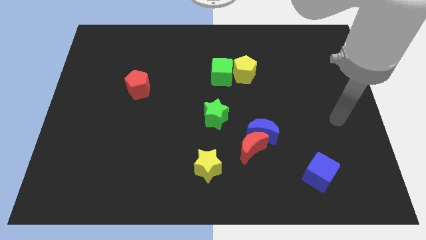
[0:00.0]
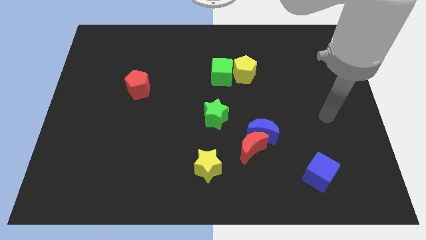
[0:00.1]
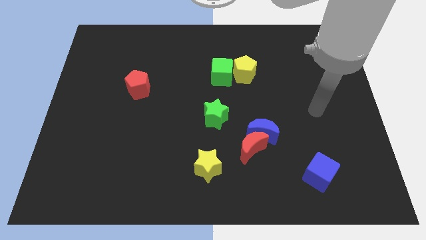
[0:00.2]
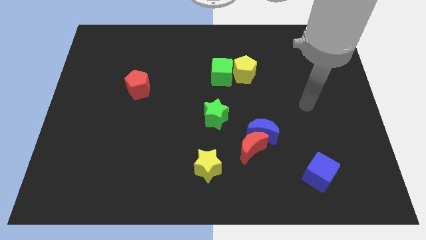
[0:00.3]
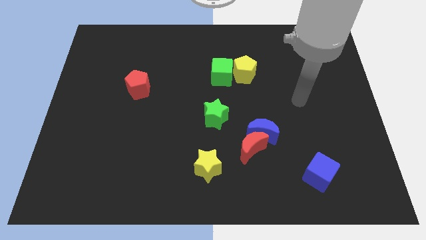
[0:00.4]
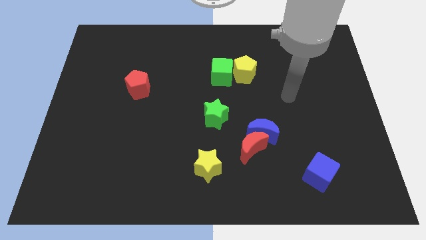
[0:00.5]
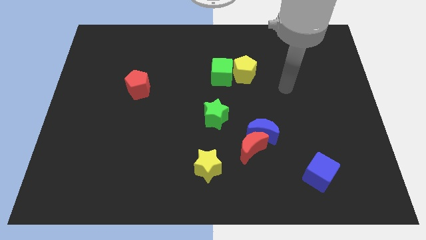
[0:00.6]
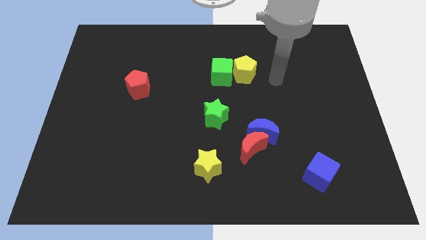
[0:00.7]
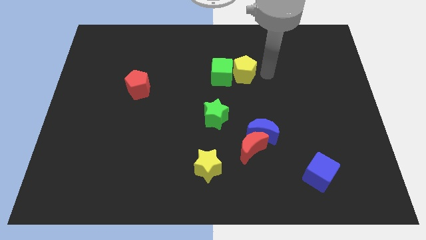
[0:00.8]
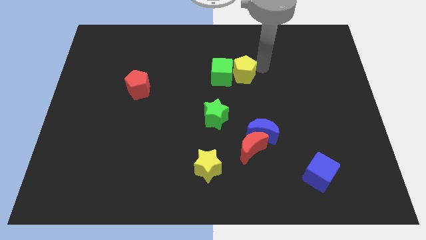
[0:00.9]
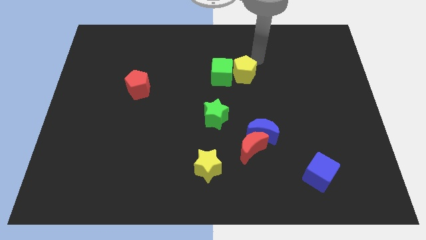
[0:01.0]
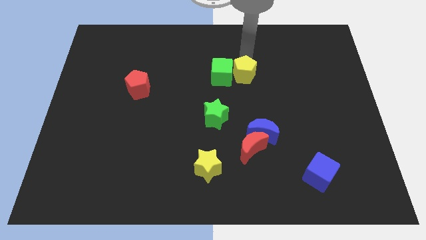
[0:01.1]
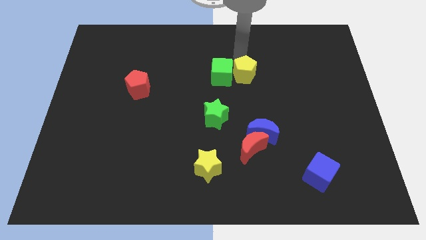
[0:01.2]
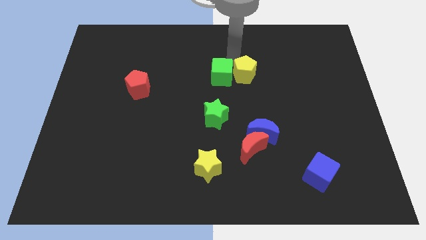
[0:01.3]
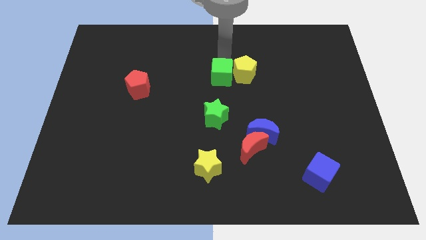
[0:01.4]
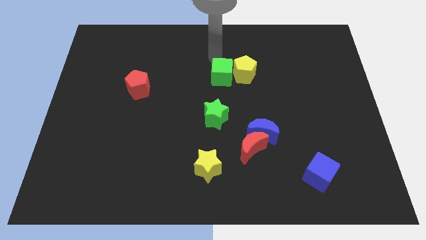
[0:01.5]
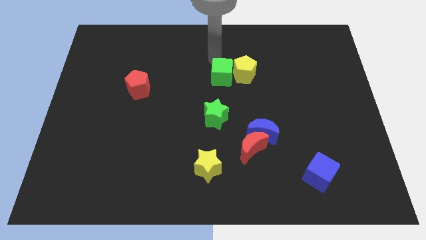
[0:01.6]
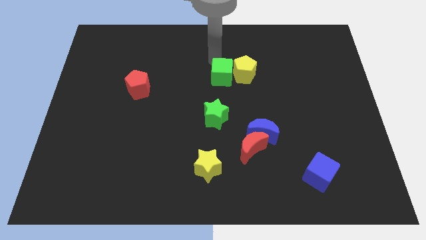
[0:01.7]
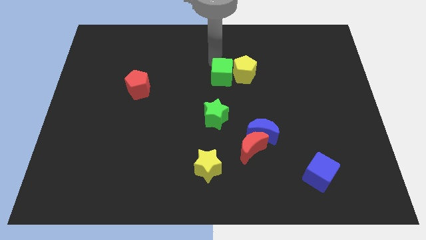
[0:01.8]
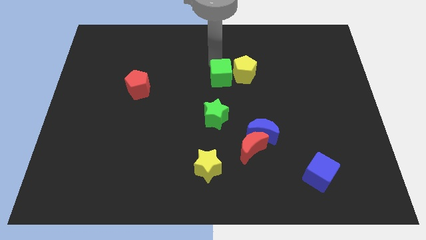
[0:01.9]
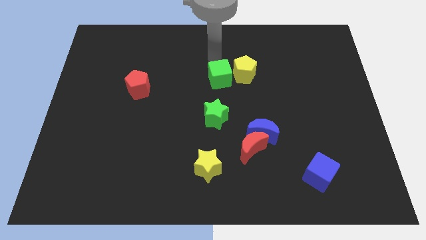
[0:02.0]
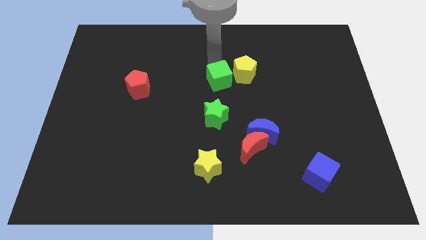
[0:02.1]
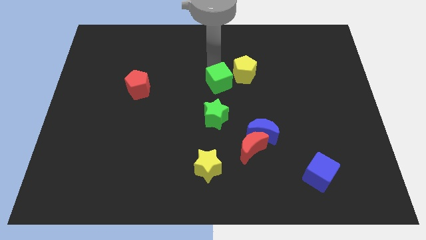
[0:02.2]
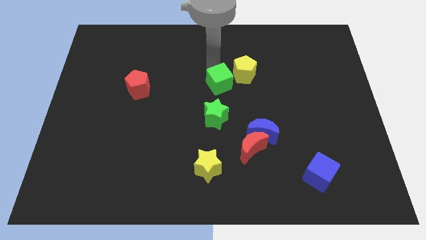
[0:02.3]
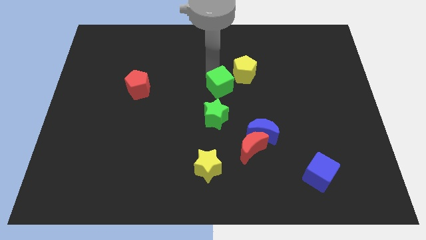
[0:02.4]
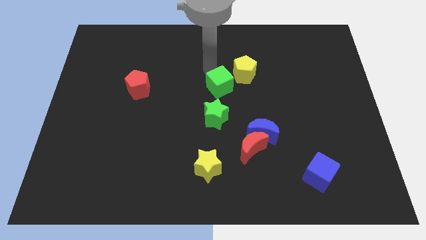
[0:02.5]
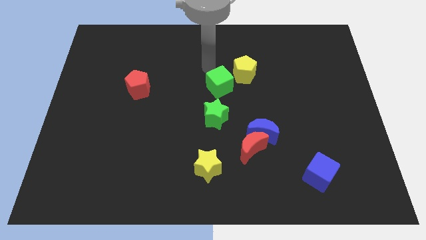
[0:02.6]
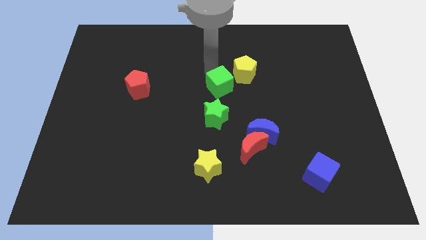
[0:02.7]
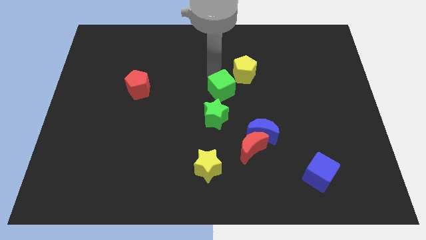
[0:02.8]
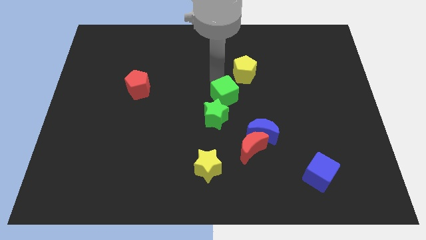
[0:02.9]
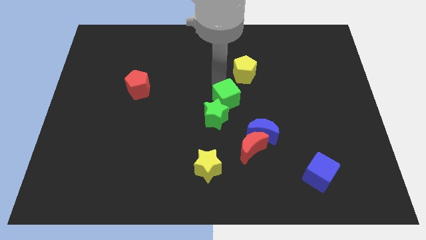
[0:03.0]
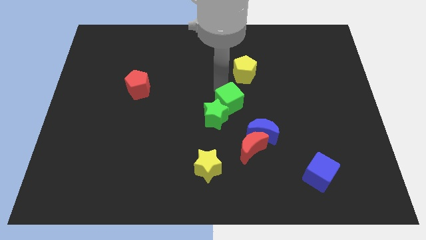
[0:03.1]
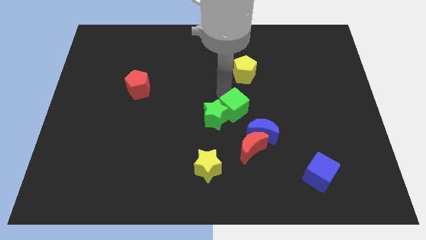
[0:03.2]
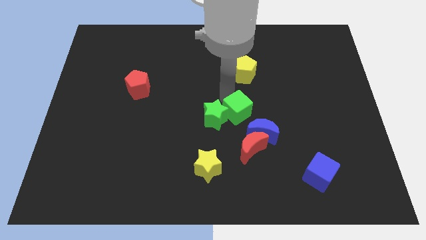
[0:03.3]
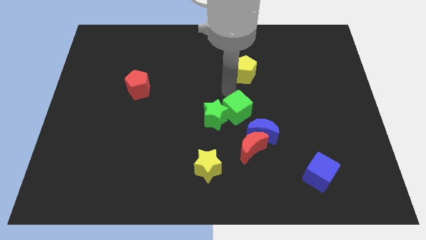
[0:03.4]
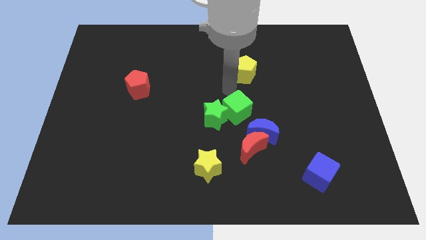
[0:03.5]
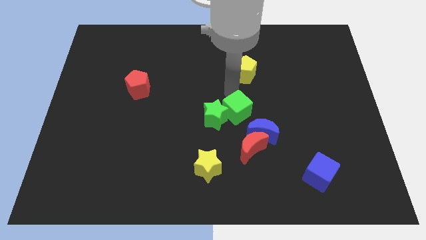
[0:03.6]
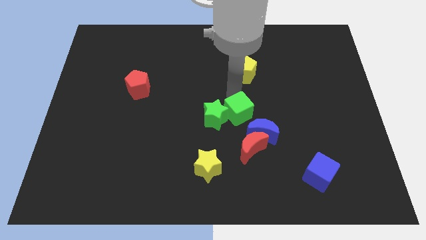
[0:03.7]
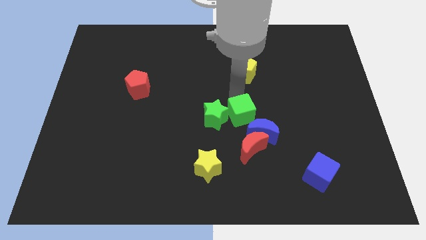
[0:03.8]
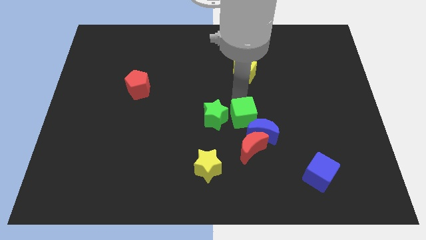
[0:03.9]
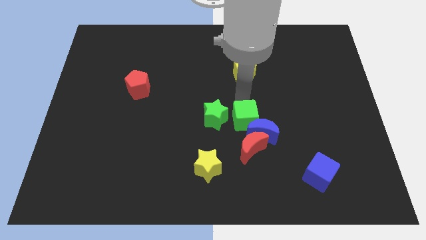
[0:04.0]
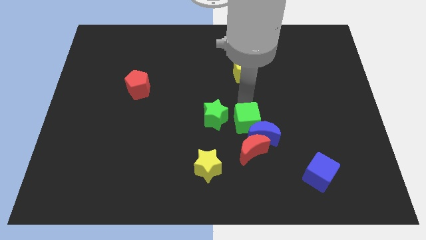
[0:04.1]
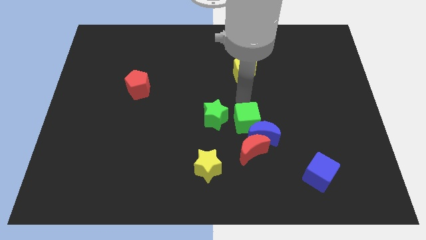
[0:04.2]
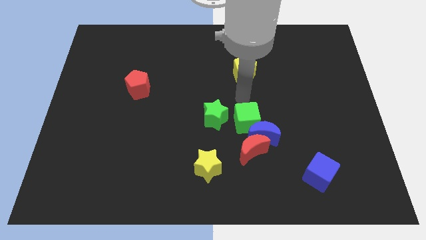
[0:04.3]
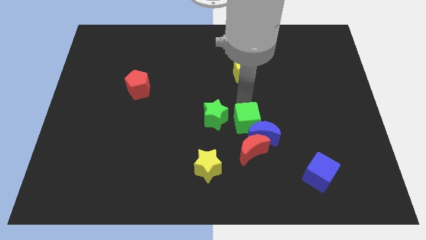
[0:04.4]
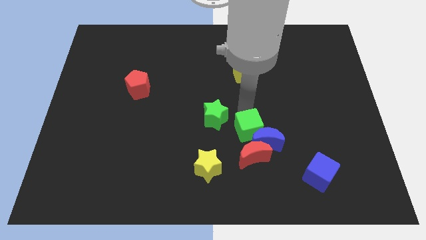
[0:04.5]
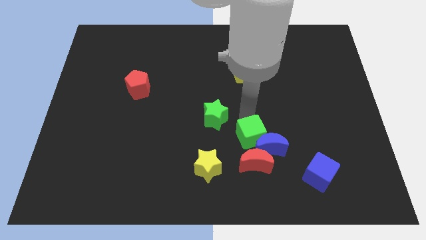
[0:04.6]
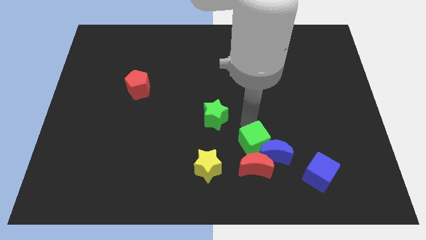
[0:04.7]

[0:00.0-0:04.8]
put the green cube next to the red moon

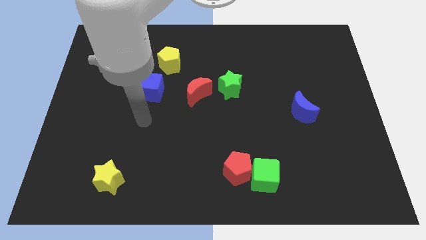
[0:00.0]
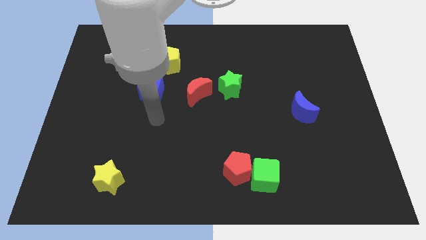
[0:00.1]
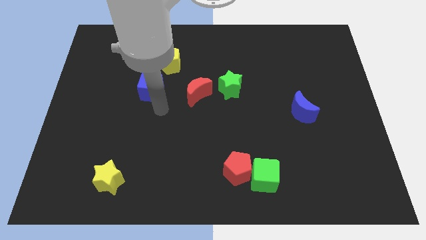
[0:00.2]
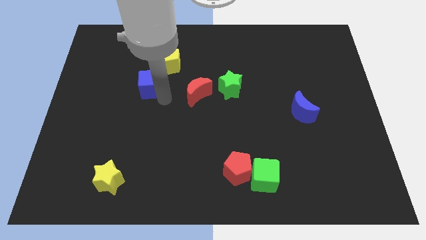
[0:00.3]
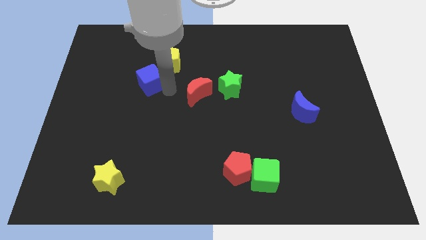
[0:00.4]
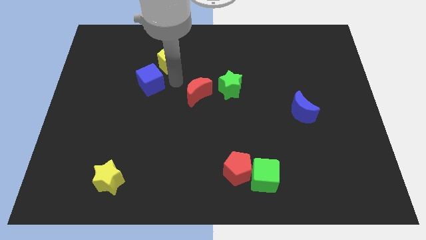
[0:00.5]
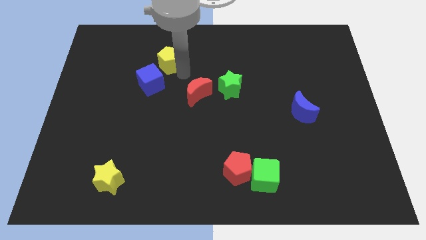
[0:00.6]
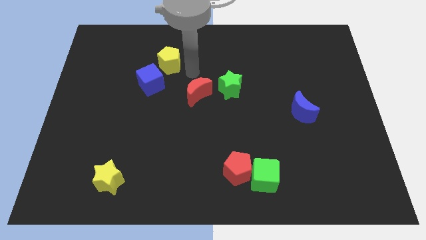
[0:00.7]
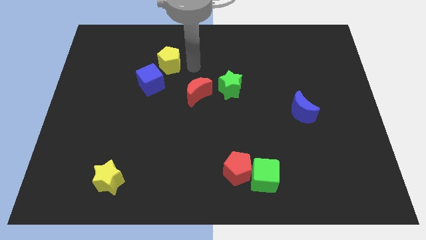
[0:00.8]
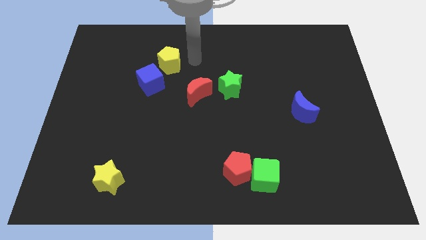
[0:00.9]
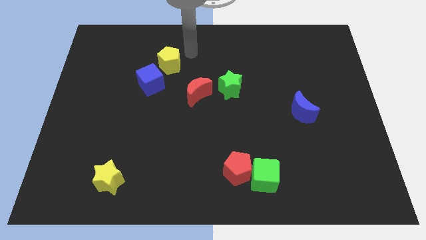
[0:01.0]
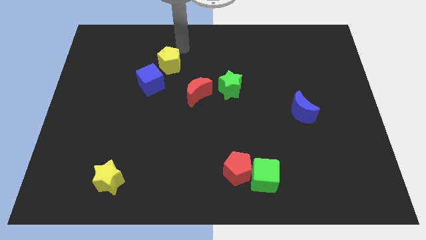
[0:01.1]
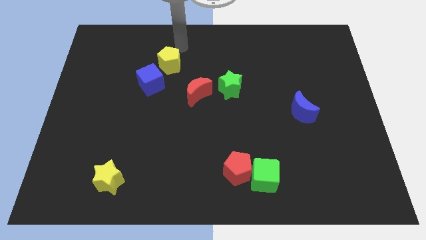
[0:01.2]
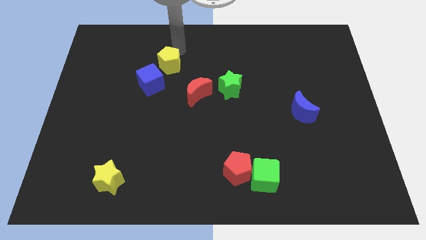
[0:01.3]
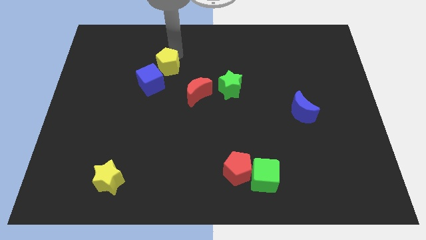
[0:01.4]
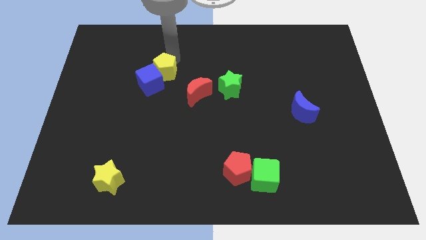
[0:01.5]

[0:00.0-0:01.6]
slide the yellow pentagon next to the blue cube

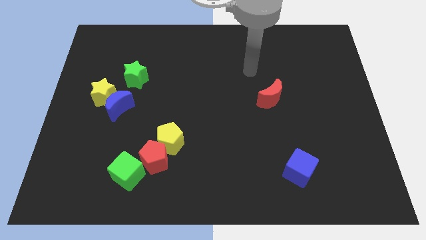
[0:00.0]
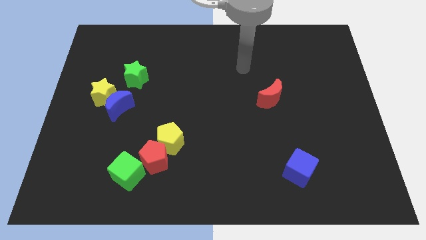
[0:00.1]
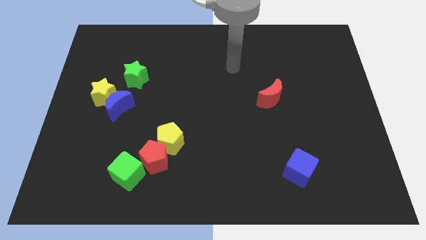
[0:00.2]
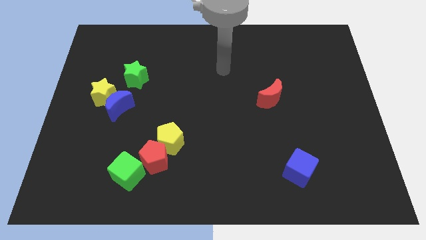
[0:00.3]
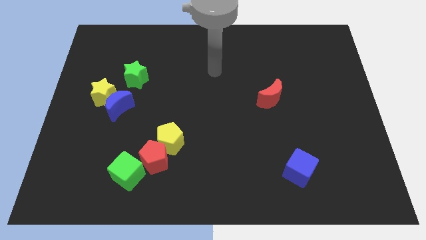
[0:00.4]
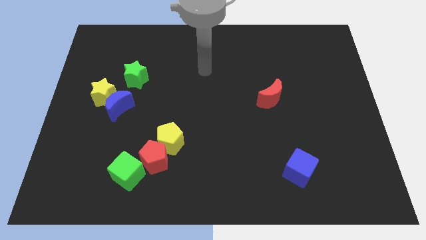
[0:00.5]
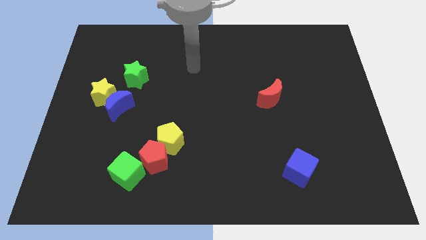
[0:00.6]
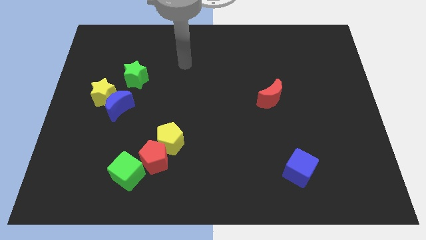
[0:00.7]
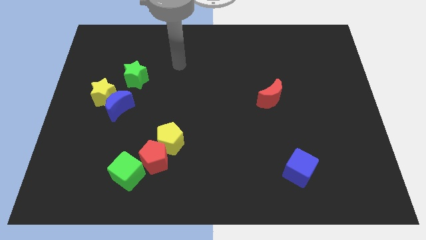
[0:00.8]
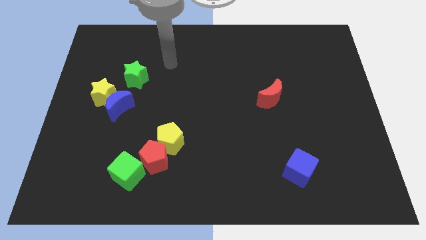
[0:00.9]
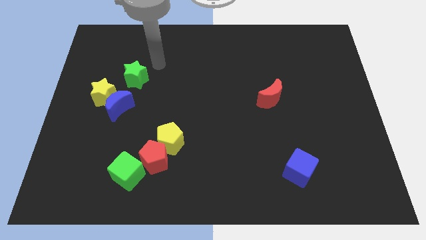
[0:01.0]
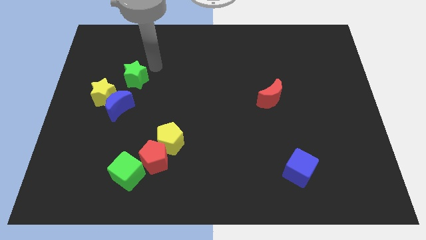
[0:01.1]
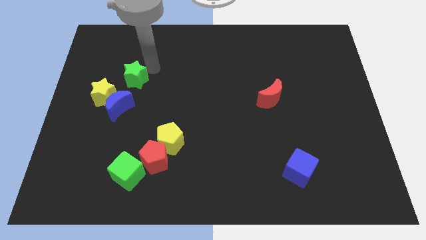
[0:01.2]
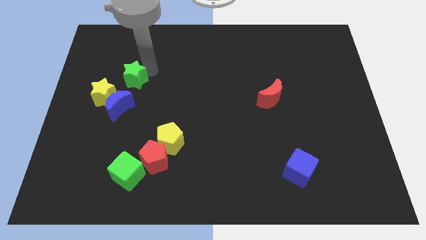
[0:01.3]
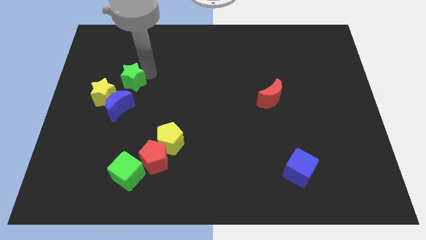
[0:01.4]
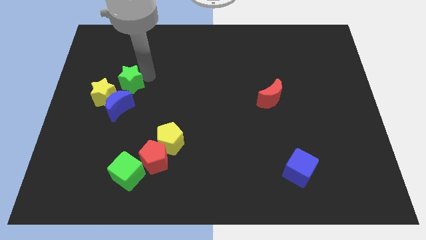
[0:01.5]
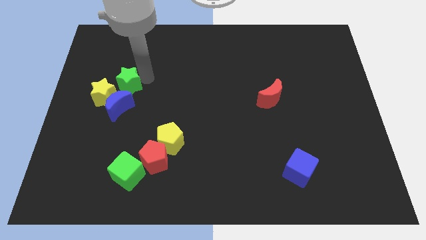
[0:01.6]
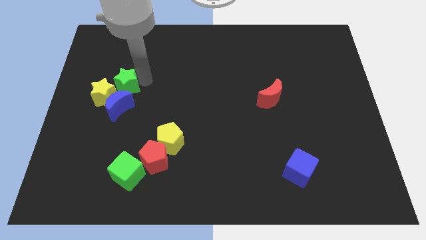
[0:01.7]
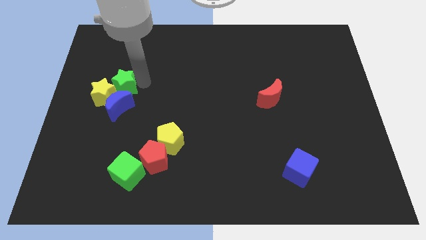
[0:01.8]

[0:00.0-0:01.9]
push the green star towards the yellow star
